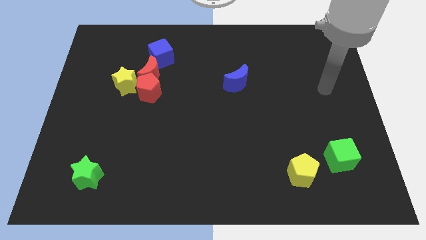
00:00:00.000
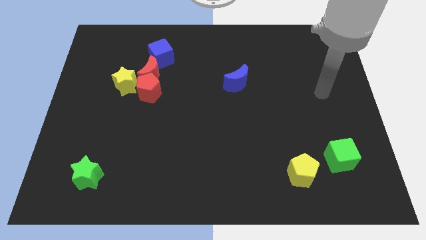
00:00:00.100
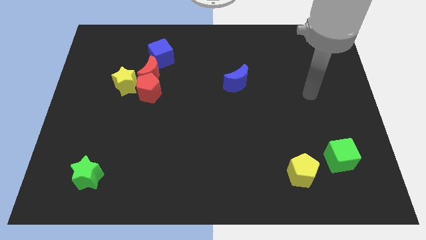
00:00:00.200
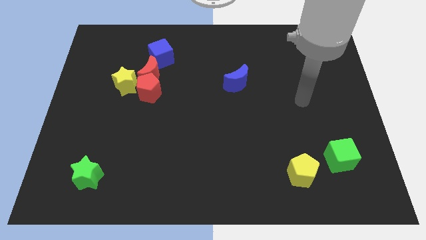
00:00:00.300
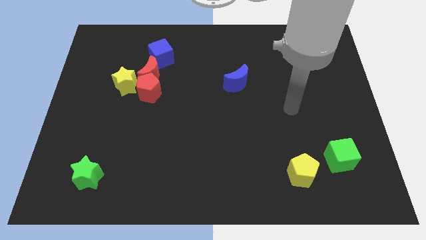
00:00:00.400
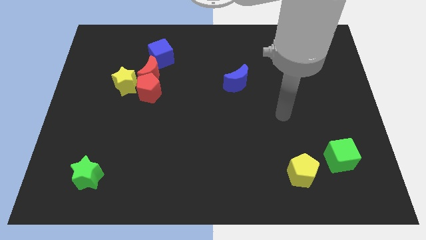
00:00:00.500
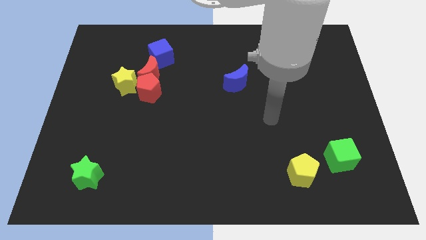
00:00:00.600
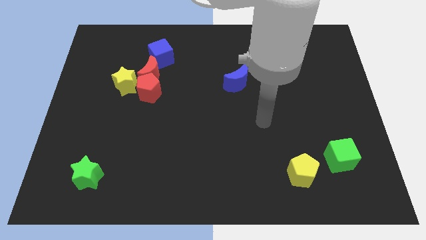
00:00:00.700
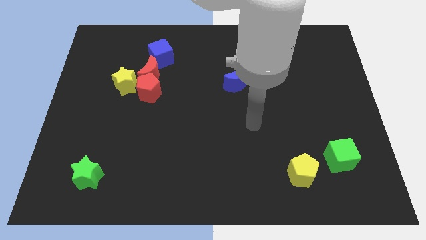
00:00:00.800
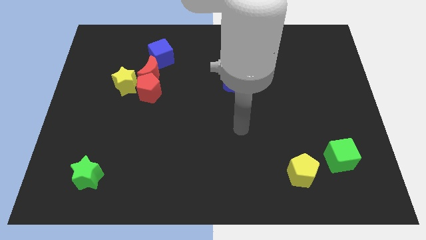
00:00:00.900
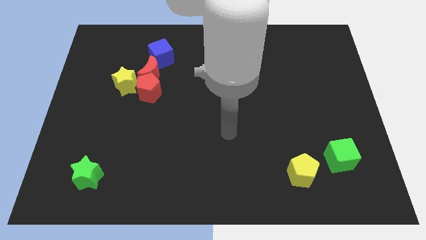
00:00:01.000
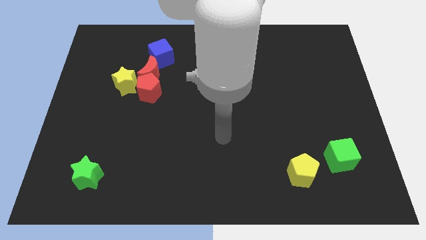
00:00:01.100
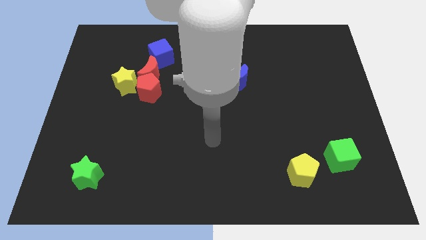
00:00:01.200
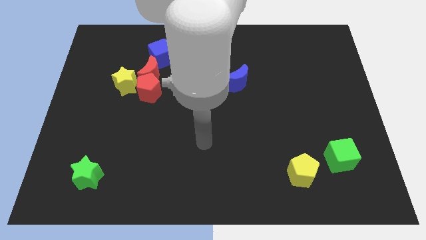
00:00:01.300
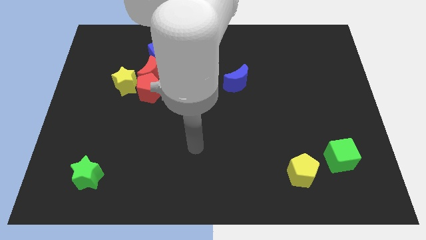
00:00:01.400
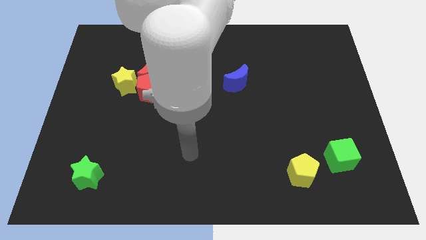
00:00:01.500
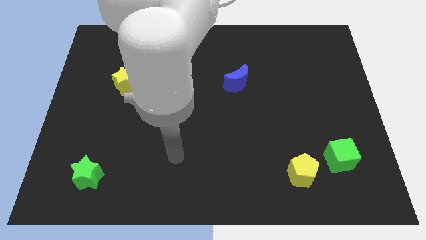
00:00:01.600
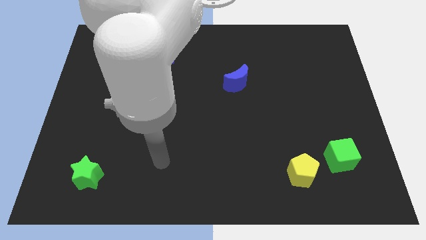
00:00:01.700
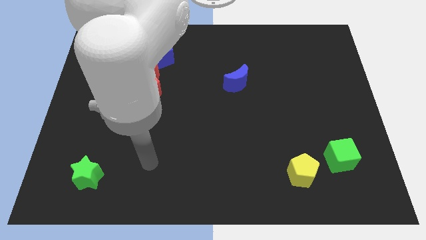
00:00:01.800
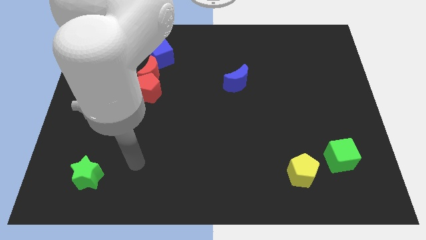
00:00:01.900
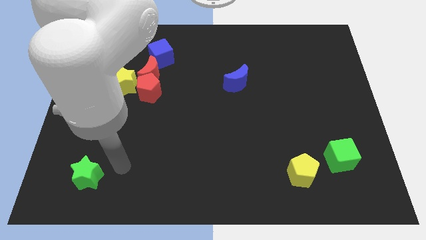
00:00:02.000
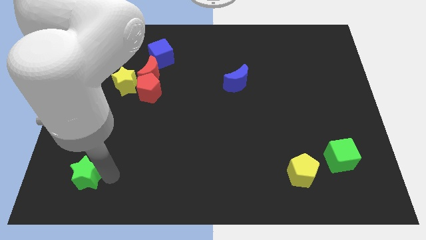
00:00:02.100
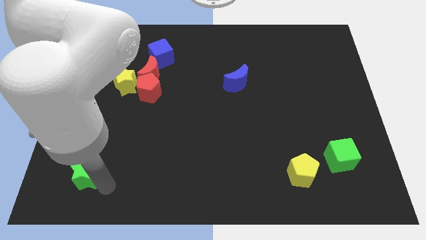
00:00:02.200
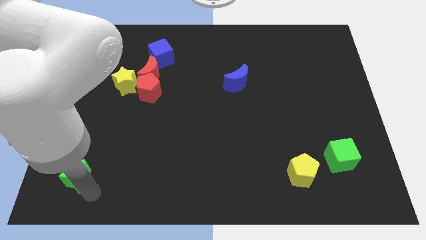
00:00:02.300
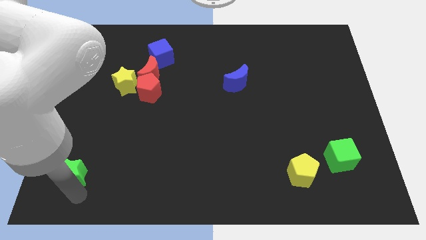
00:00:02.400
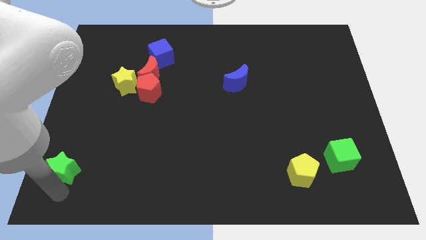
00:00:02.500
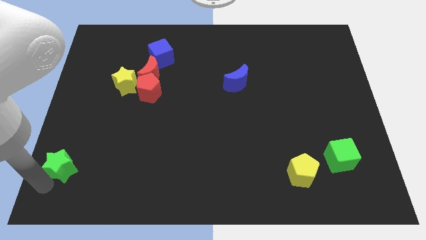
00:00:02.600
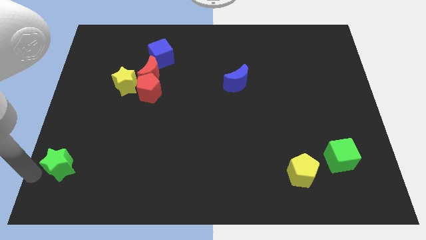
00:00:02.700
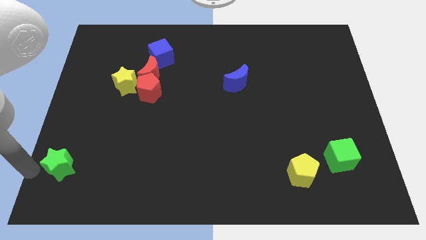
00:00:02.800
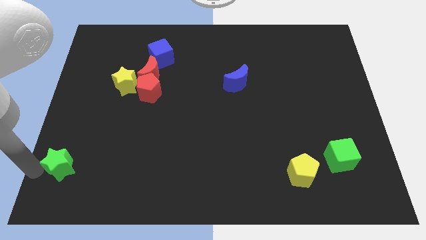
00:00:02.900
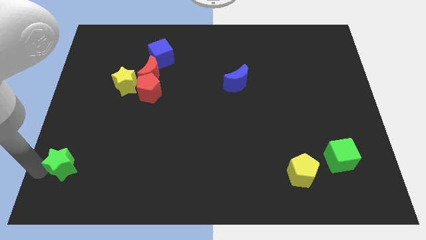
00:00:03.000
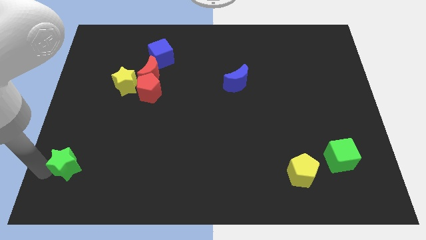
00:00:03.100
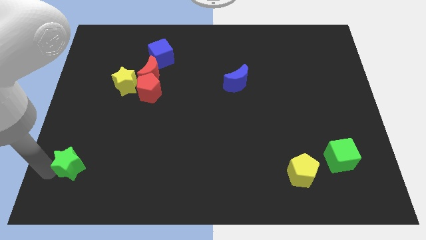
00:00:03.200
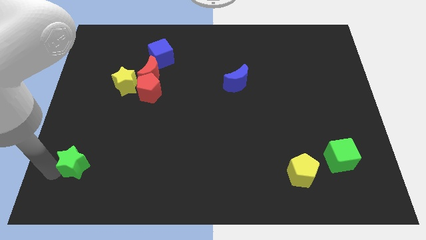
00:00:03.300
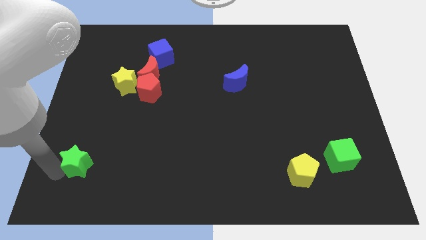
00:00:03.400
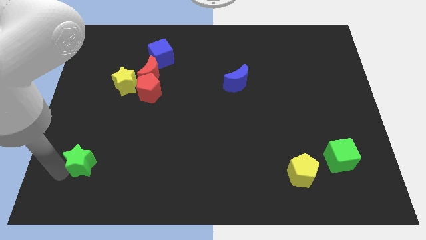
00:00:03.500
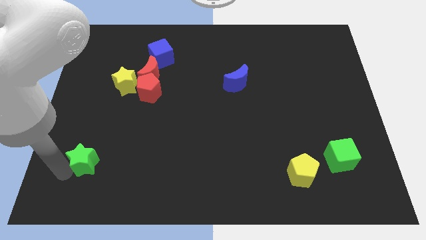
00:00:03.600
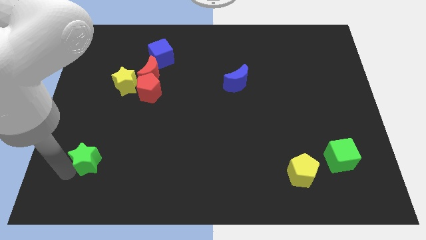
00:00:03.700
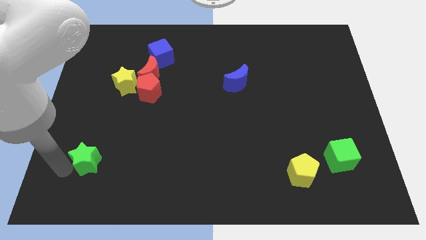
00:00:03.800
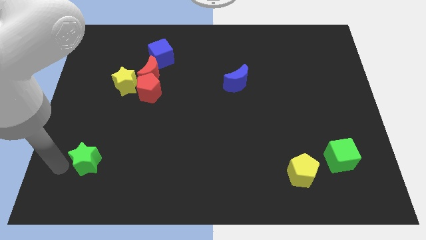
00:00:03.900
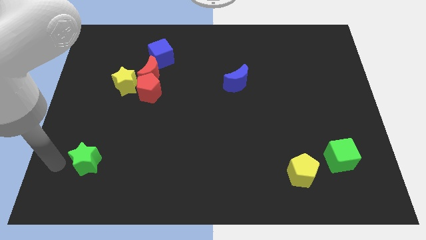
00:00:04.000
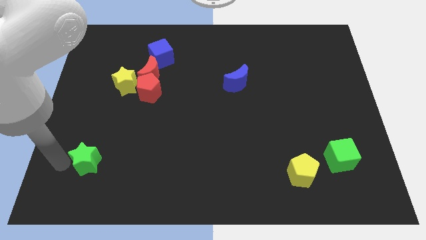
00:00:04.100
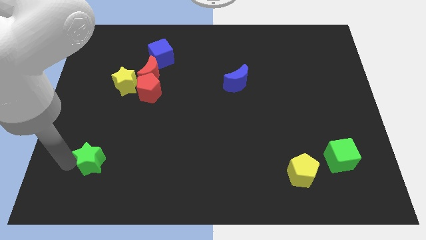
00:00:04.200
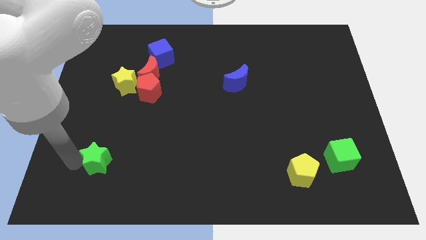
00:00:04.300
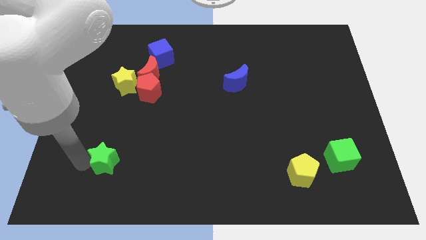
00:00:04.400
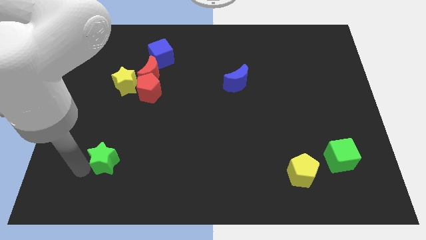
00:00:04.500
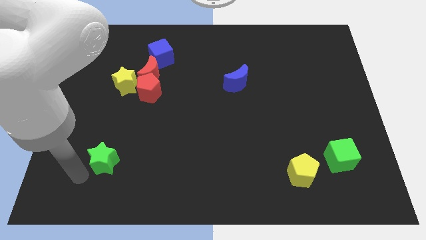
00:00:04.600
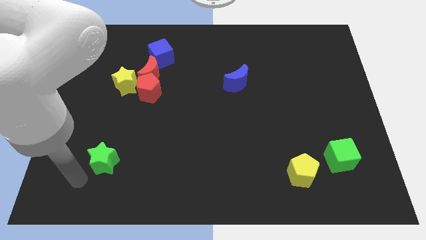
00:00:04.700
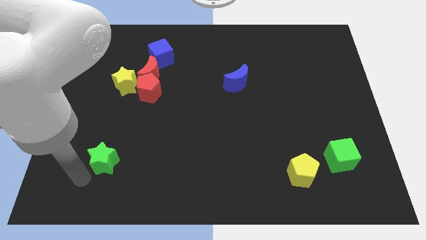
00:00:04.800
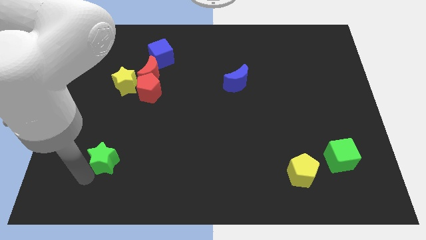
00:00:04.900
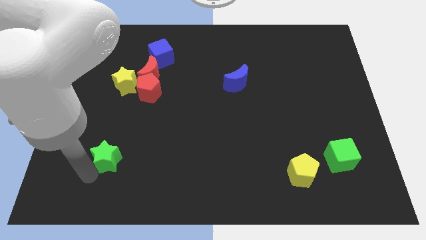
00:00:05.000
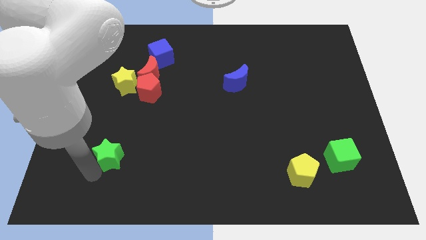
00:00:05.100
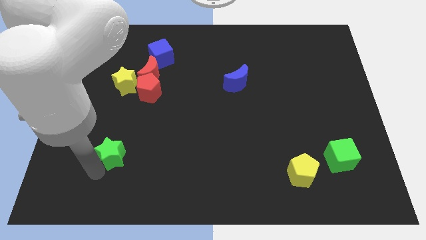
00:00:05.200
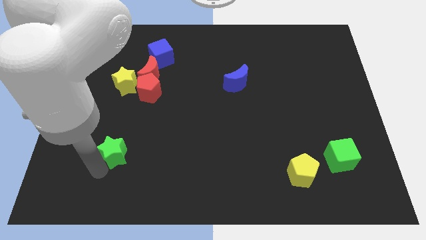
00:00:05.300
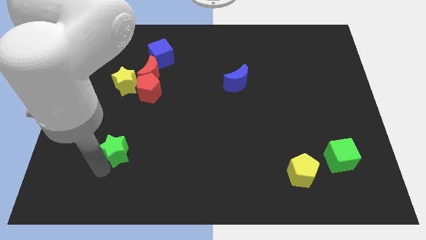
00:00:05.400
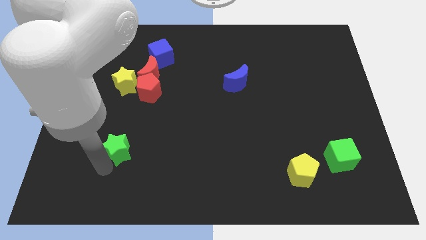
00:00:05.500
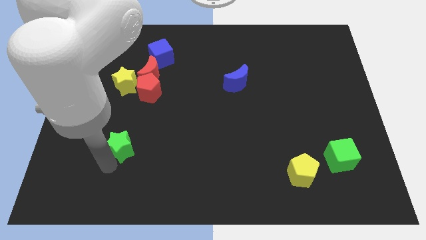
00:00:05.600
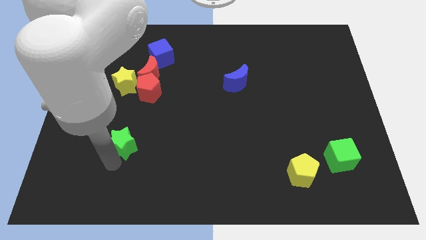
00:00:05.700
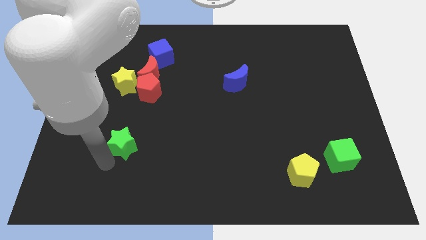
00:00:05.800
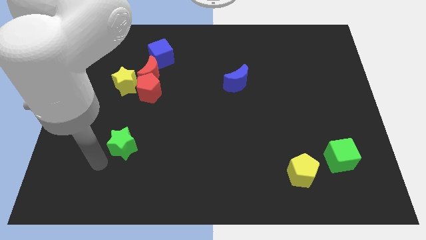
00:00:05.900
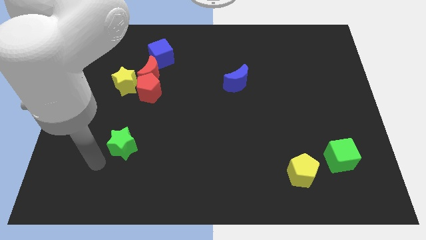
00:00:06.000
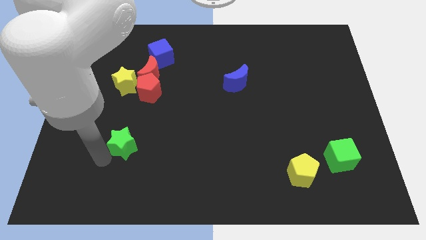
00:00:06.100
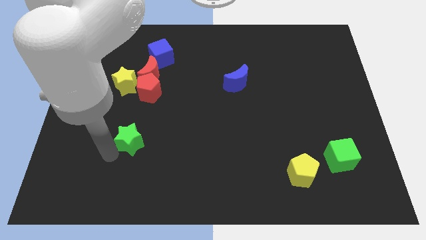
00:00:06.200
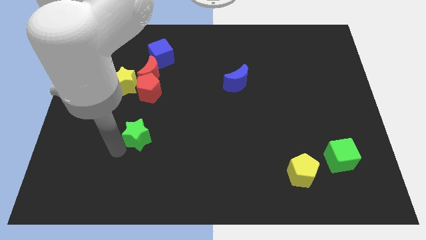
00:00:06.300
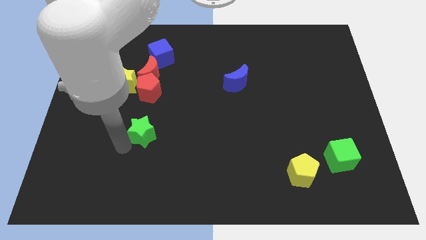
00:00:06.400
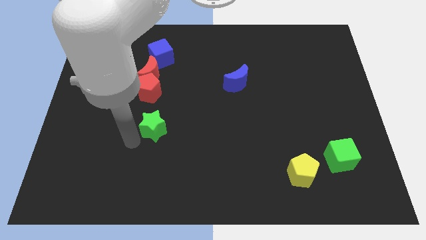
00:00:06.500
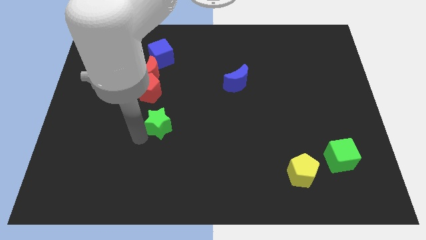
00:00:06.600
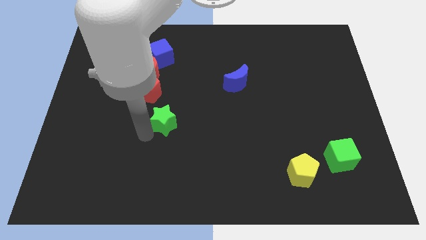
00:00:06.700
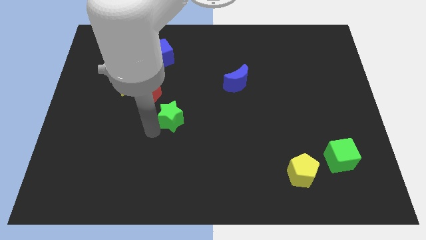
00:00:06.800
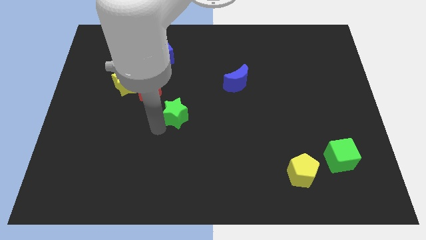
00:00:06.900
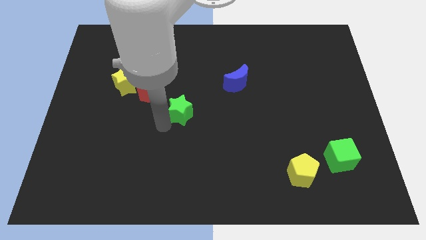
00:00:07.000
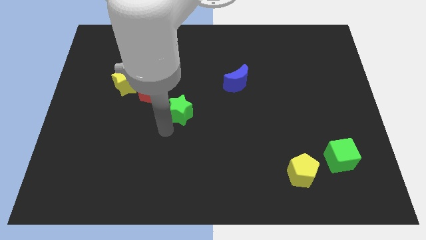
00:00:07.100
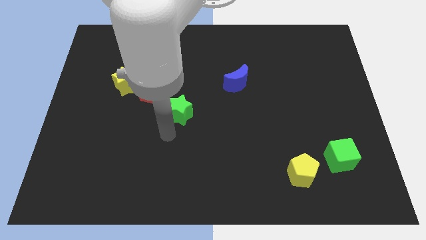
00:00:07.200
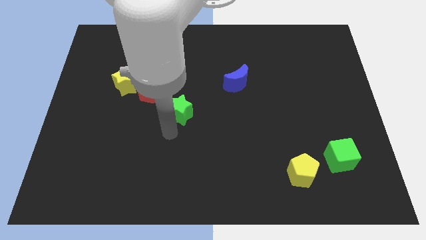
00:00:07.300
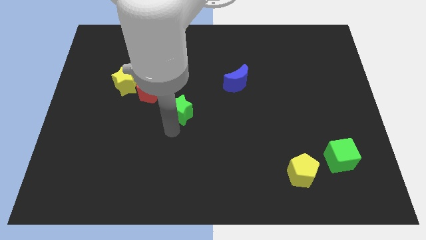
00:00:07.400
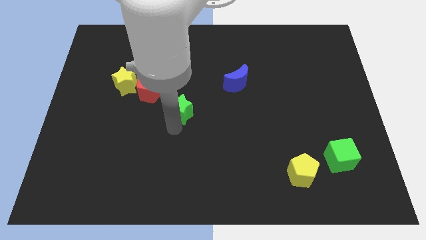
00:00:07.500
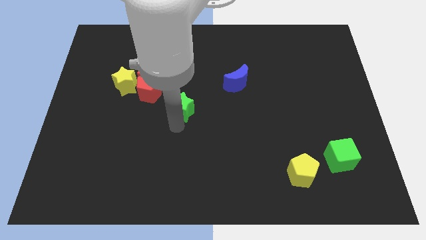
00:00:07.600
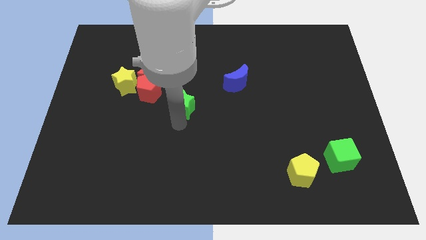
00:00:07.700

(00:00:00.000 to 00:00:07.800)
put the green star just right of the red pentagon
